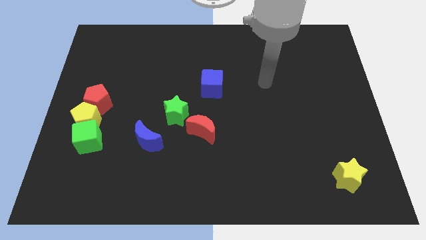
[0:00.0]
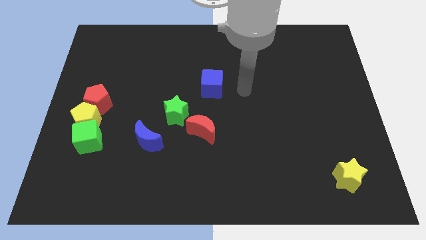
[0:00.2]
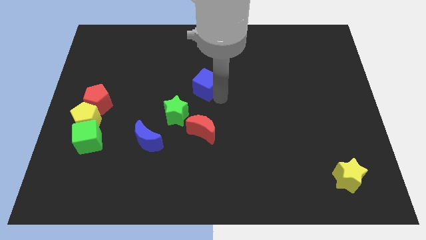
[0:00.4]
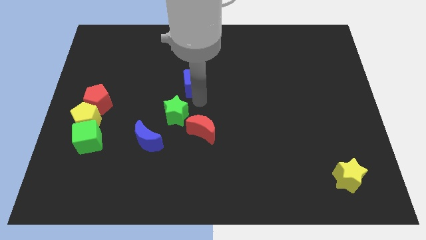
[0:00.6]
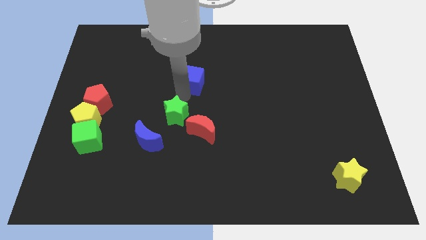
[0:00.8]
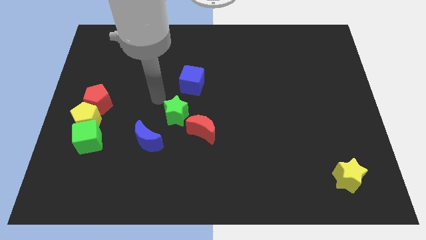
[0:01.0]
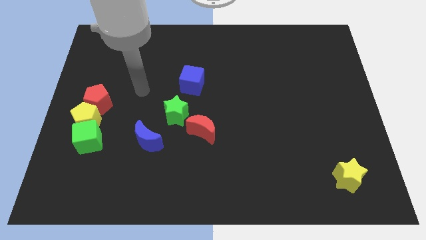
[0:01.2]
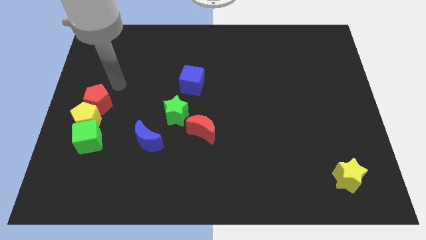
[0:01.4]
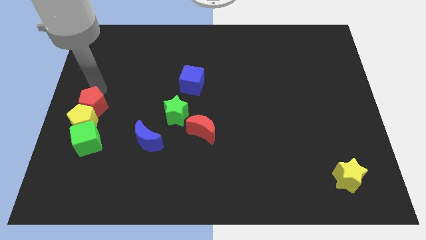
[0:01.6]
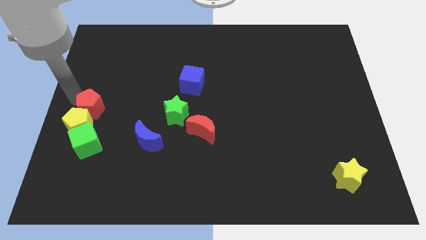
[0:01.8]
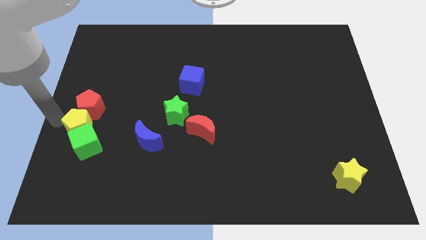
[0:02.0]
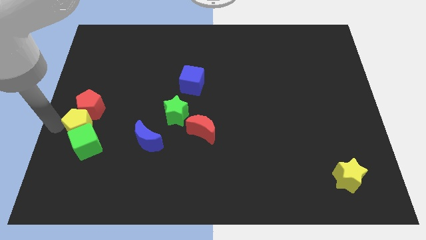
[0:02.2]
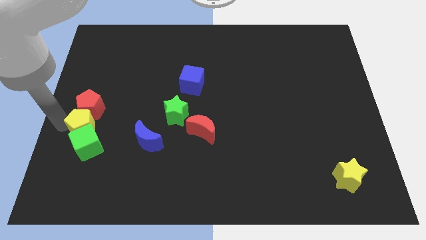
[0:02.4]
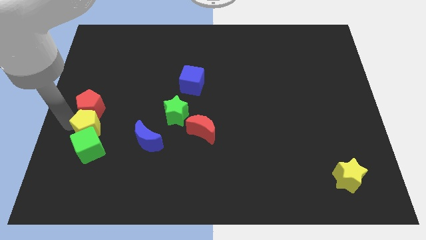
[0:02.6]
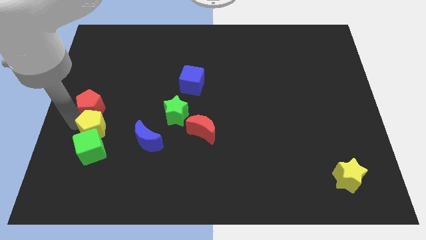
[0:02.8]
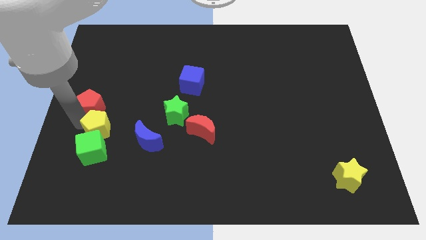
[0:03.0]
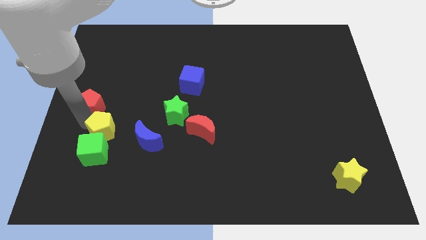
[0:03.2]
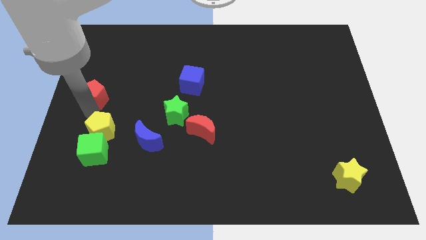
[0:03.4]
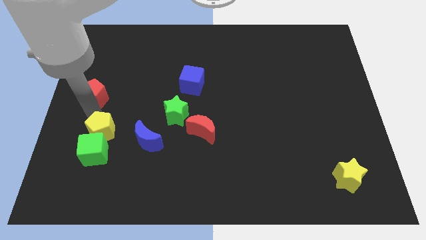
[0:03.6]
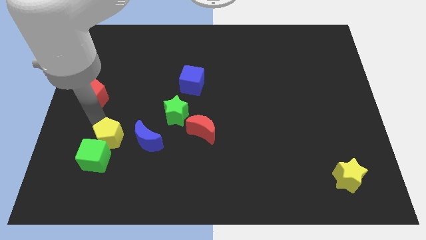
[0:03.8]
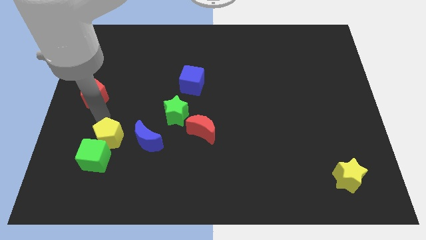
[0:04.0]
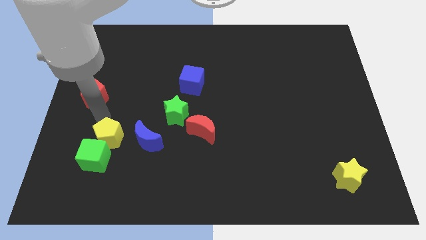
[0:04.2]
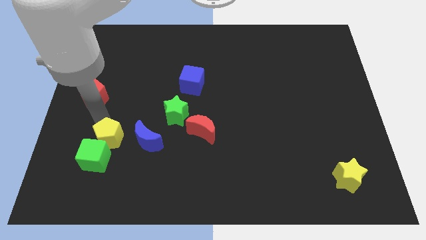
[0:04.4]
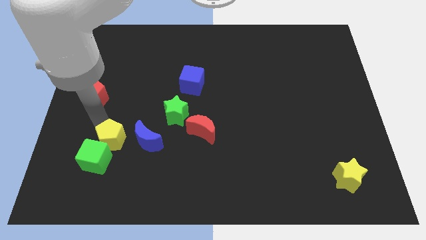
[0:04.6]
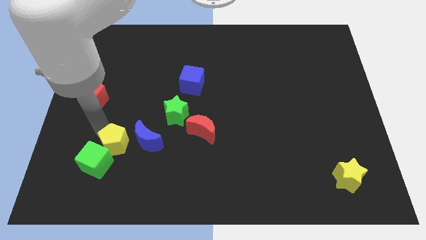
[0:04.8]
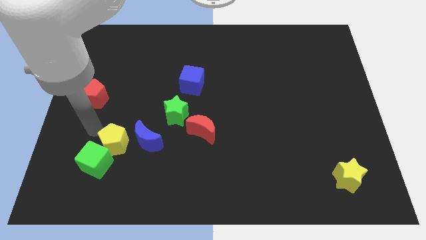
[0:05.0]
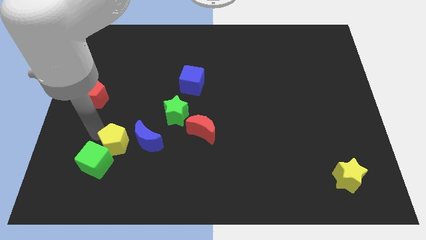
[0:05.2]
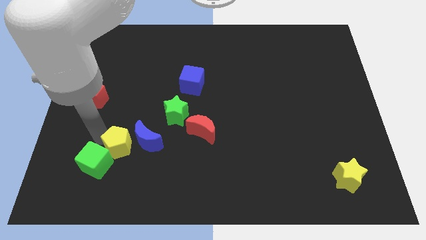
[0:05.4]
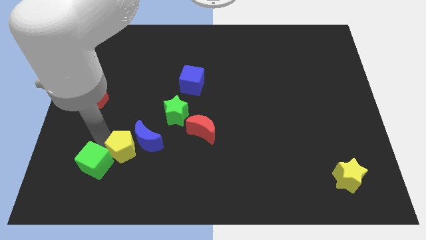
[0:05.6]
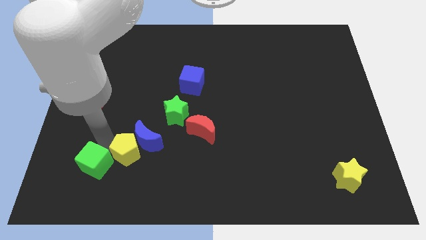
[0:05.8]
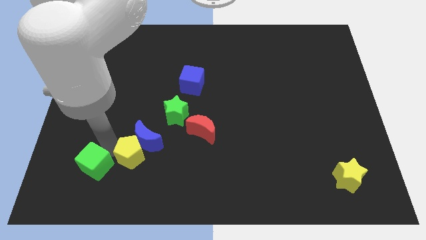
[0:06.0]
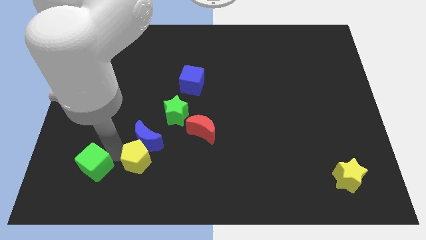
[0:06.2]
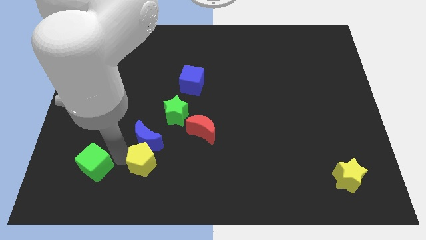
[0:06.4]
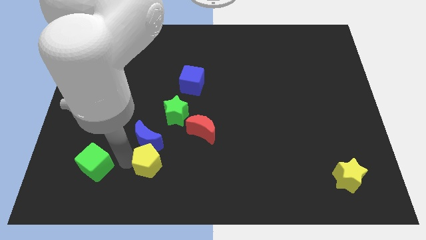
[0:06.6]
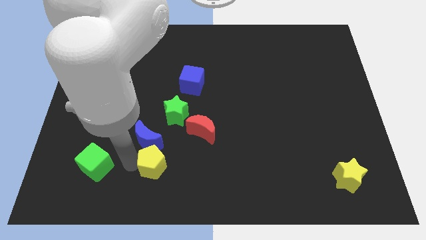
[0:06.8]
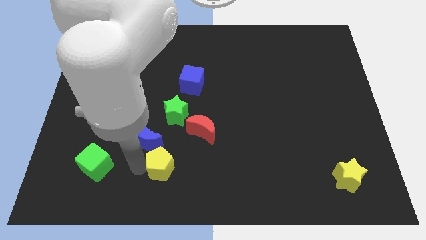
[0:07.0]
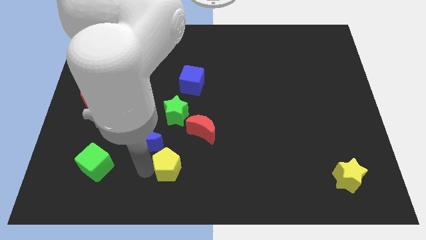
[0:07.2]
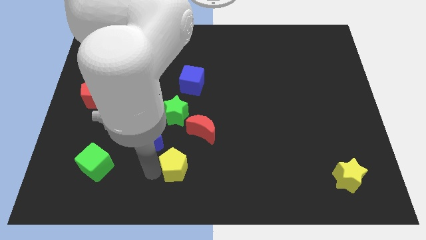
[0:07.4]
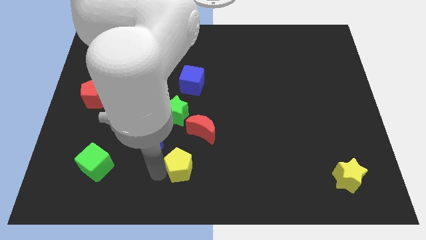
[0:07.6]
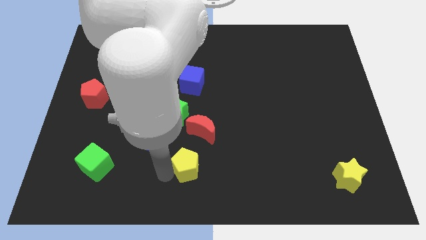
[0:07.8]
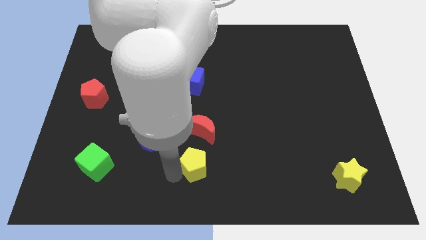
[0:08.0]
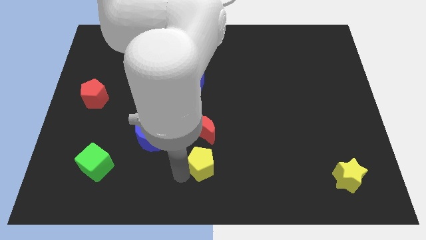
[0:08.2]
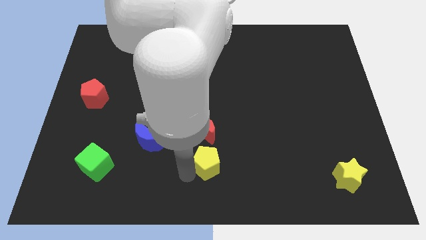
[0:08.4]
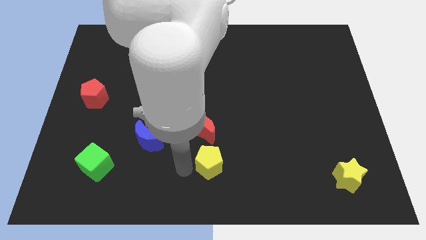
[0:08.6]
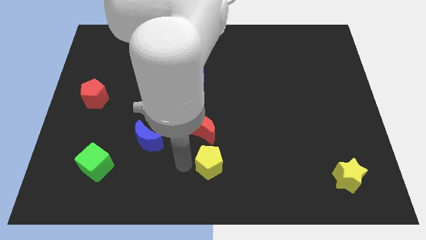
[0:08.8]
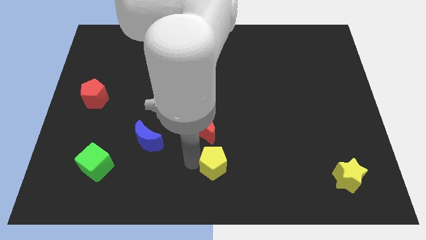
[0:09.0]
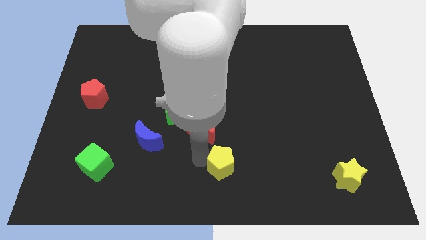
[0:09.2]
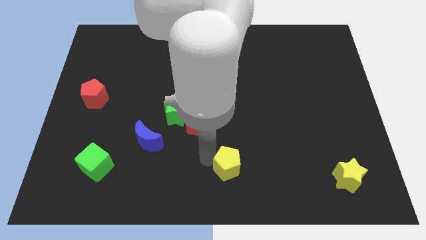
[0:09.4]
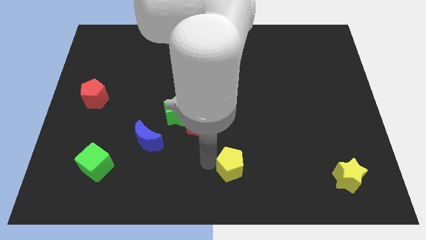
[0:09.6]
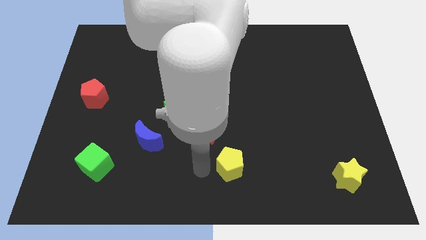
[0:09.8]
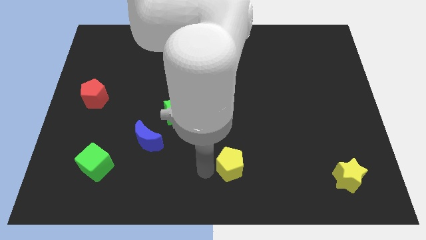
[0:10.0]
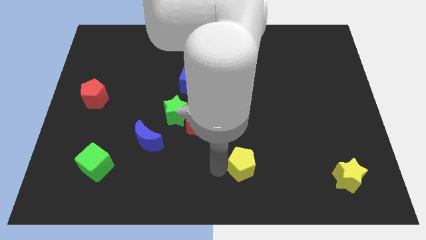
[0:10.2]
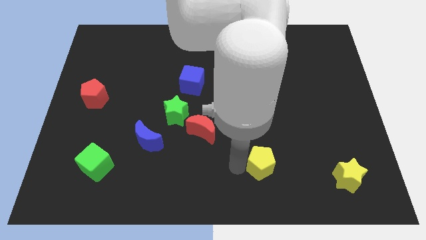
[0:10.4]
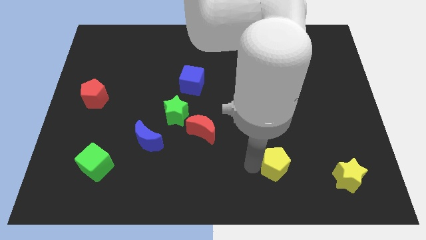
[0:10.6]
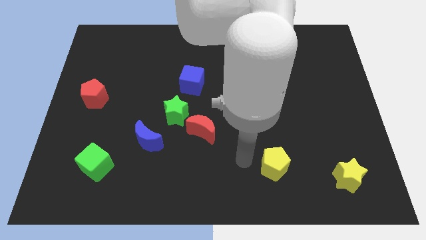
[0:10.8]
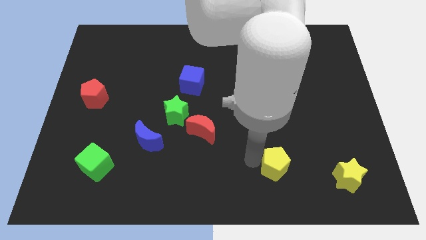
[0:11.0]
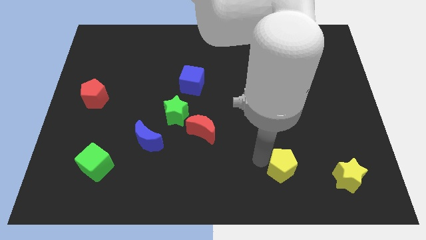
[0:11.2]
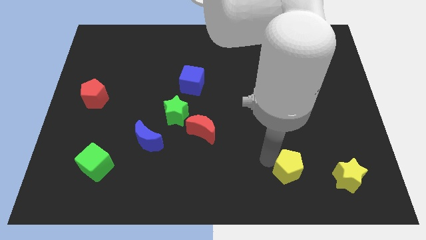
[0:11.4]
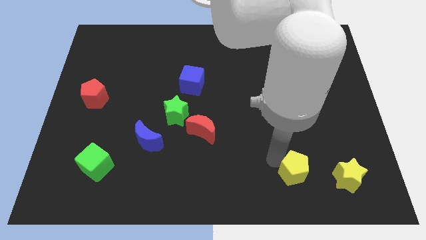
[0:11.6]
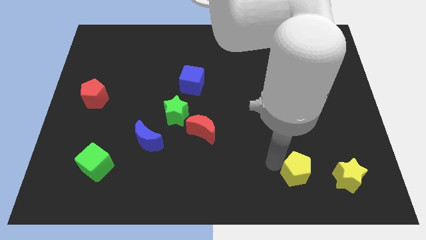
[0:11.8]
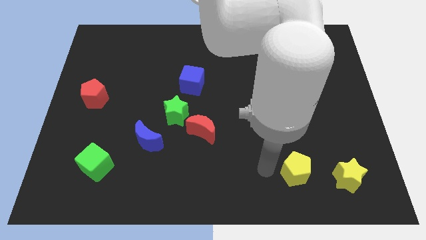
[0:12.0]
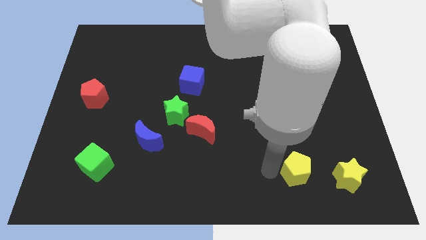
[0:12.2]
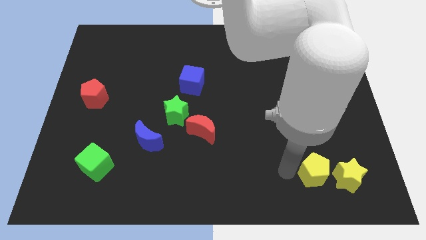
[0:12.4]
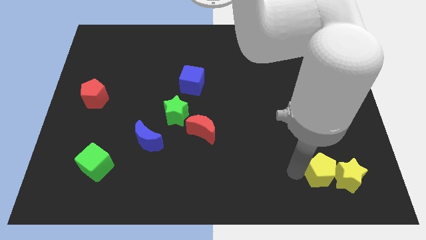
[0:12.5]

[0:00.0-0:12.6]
put the yellow pentagon towards the yellow star
